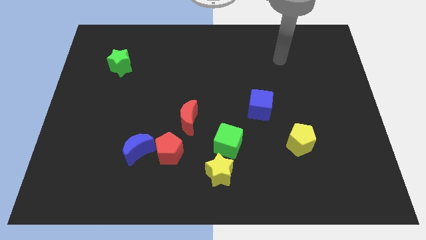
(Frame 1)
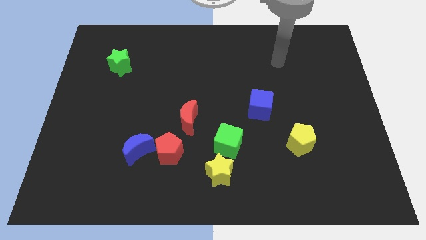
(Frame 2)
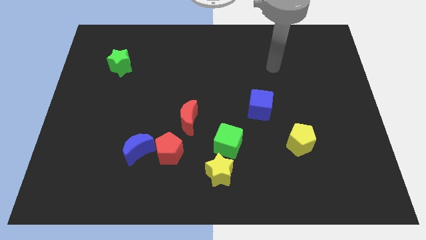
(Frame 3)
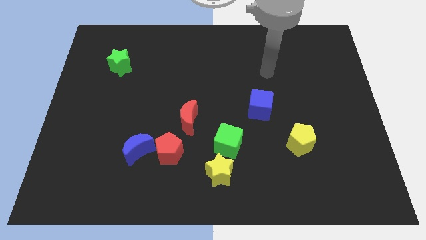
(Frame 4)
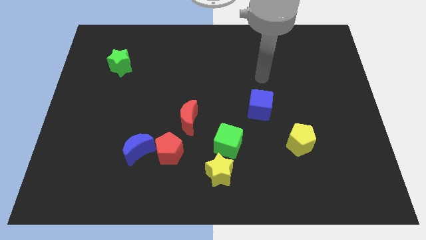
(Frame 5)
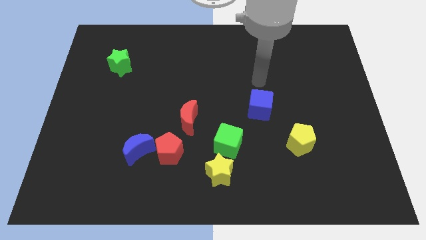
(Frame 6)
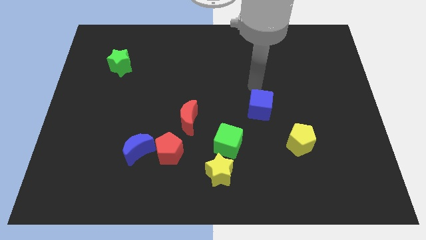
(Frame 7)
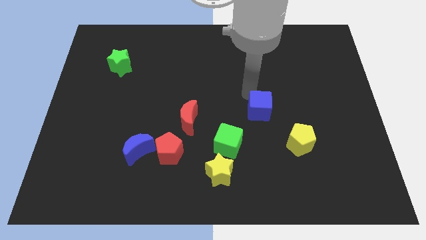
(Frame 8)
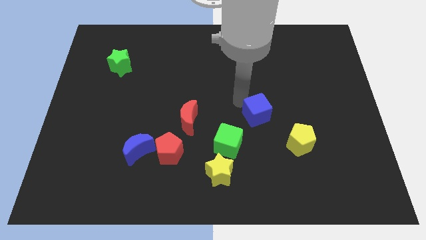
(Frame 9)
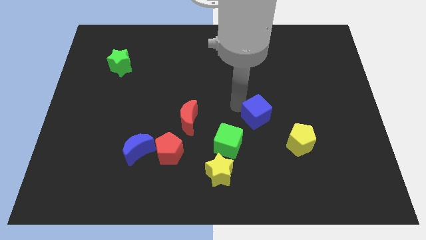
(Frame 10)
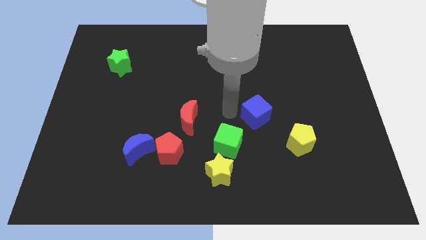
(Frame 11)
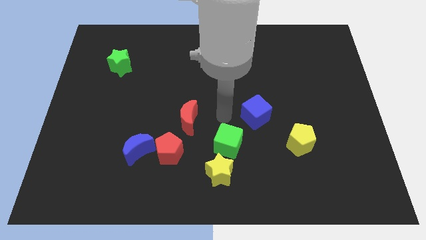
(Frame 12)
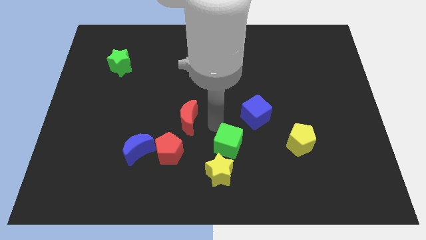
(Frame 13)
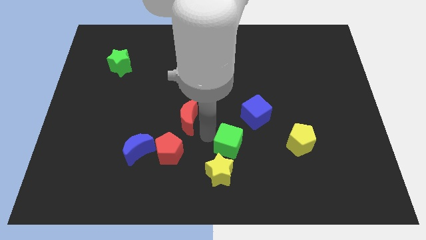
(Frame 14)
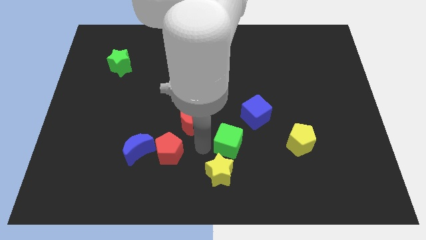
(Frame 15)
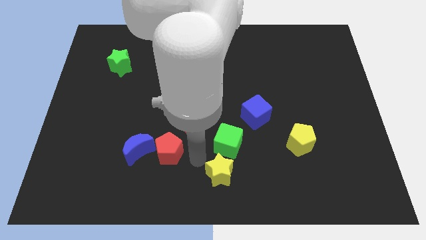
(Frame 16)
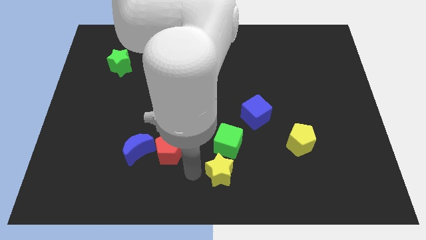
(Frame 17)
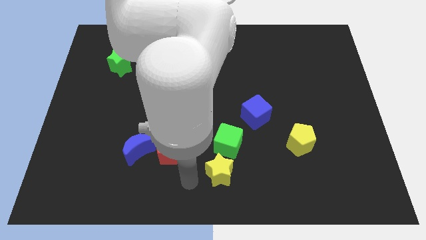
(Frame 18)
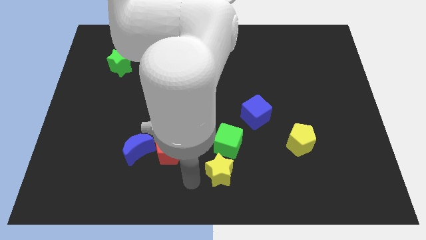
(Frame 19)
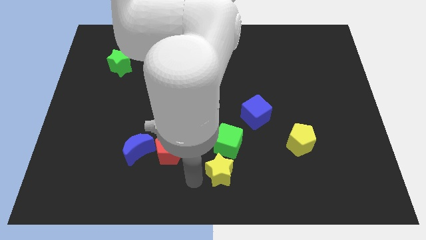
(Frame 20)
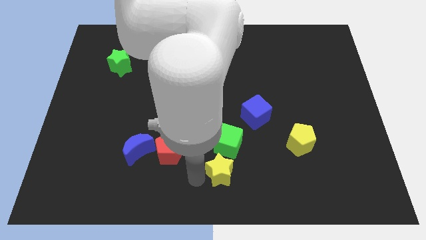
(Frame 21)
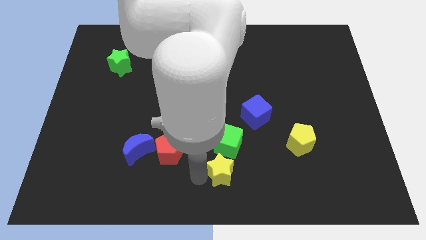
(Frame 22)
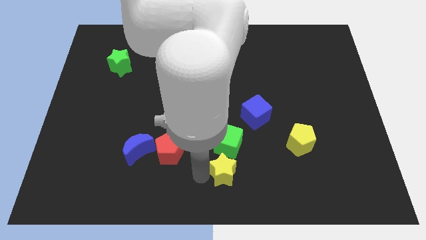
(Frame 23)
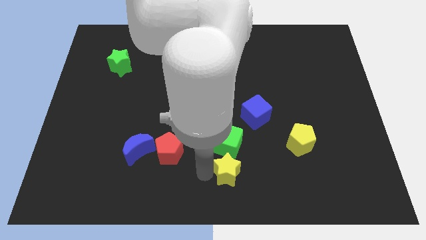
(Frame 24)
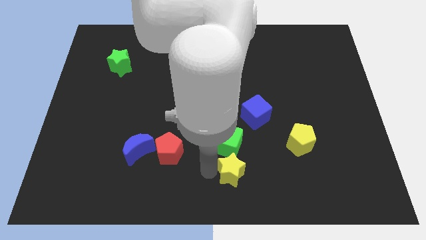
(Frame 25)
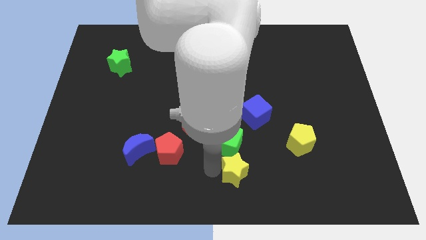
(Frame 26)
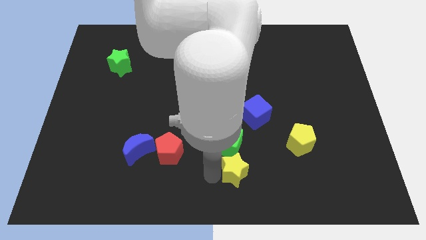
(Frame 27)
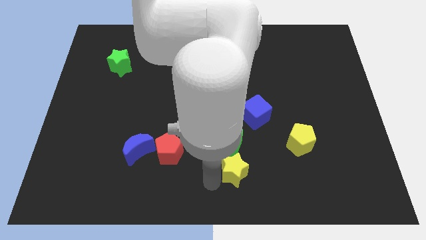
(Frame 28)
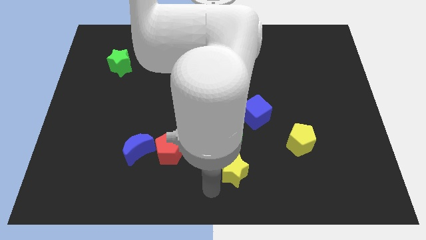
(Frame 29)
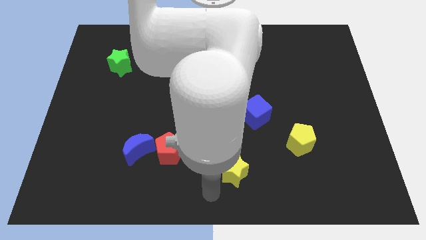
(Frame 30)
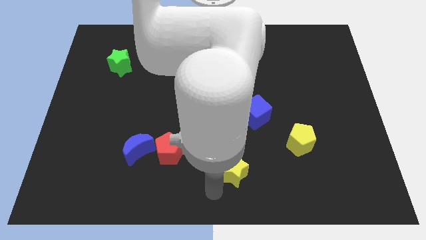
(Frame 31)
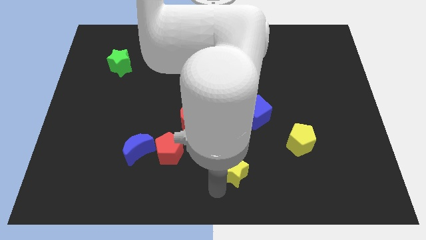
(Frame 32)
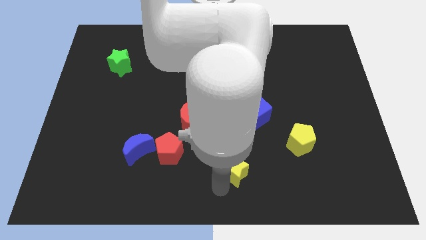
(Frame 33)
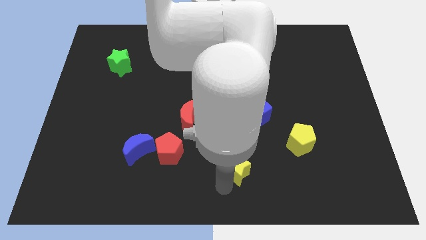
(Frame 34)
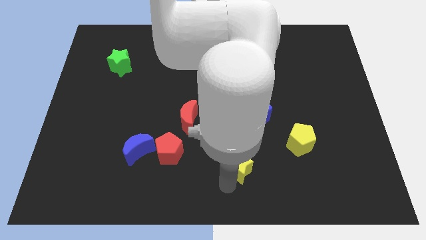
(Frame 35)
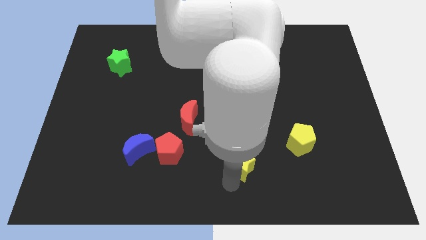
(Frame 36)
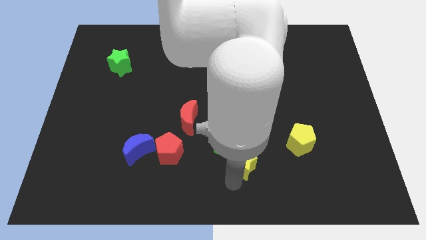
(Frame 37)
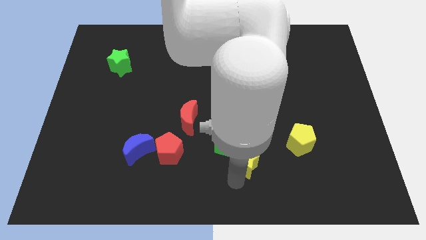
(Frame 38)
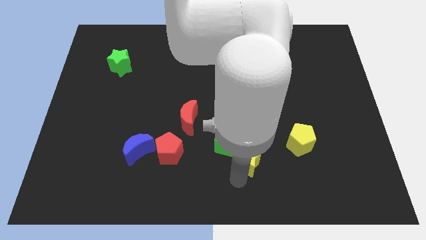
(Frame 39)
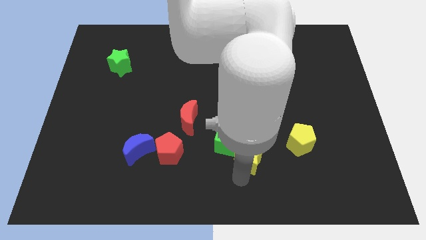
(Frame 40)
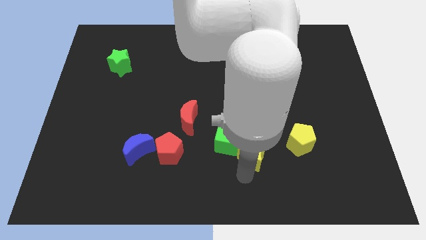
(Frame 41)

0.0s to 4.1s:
slightly move the yellow star diagonally up and right

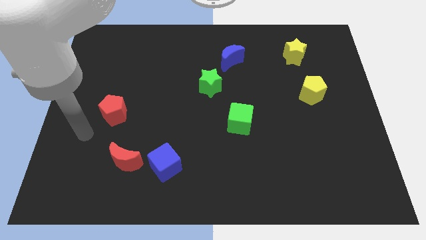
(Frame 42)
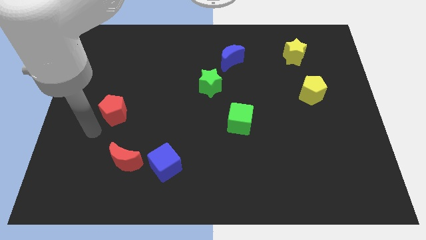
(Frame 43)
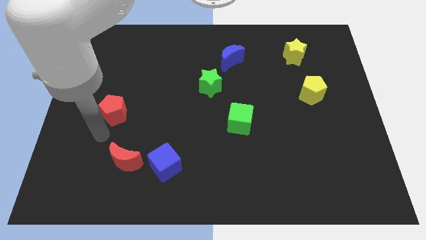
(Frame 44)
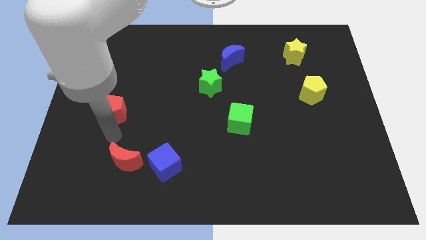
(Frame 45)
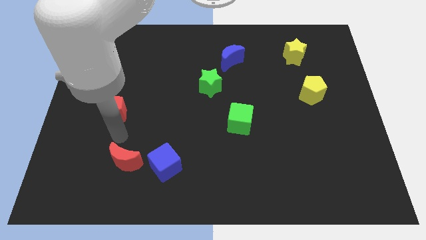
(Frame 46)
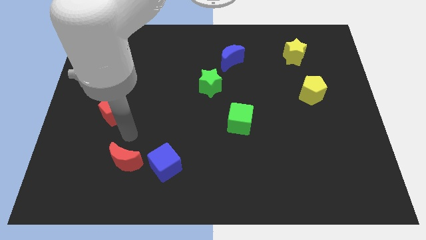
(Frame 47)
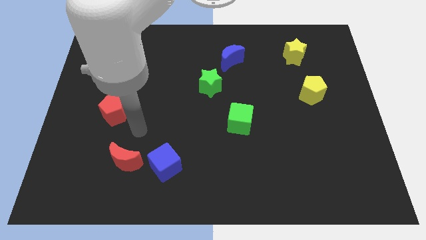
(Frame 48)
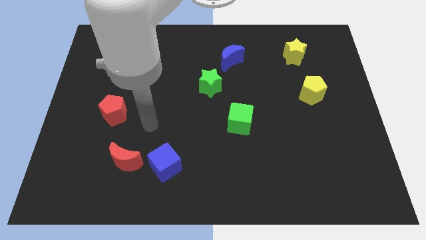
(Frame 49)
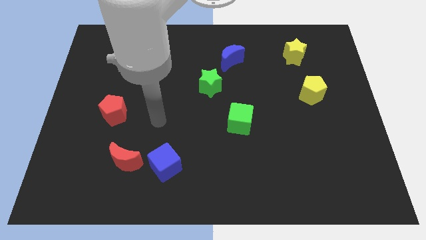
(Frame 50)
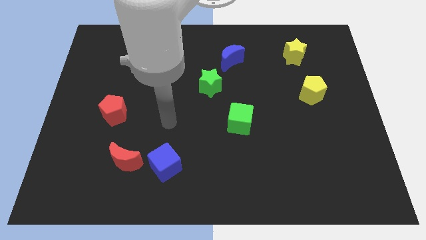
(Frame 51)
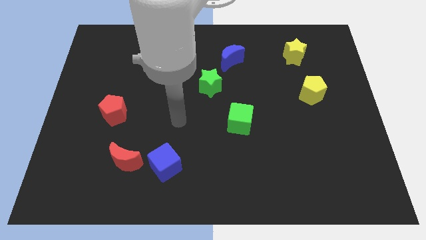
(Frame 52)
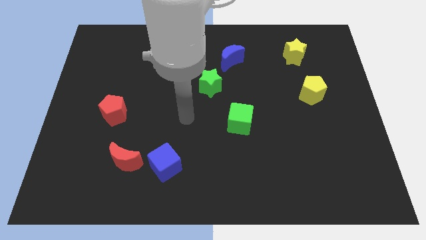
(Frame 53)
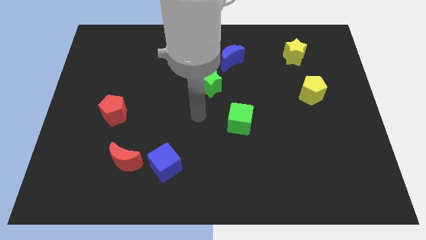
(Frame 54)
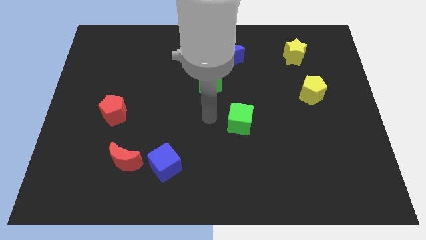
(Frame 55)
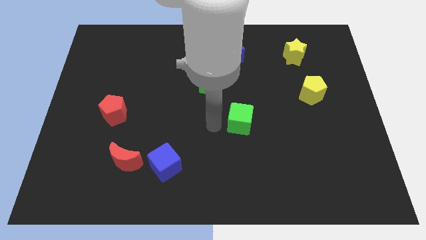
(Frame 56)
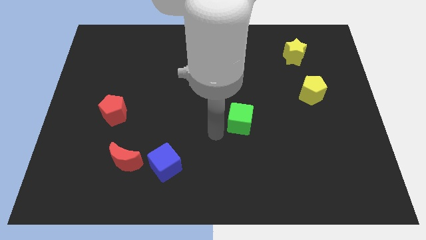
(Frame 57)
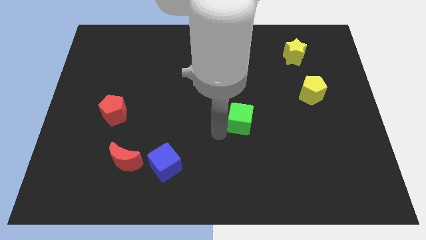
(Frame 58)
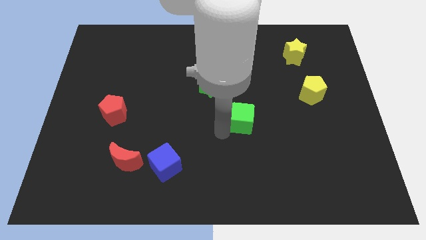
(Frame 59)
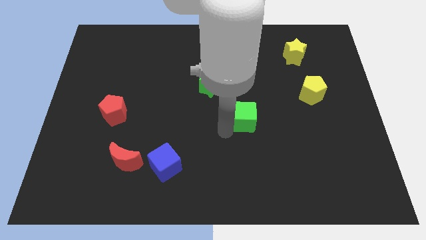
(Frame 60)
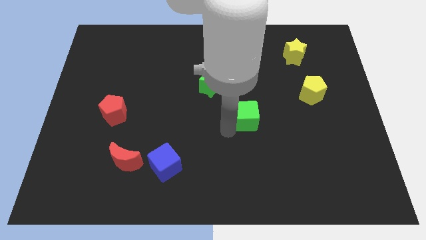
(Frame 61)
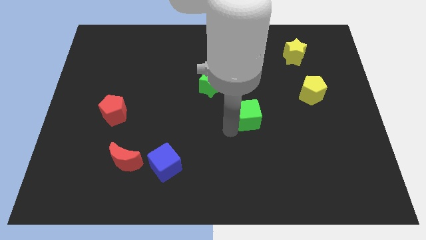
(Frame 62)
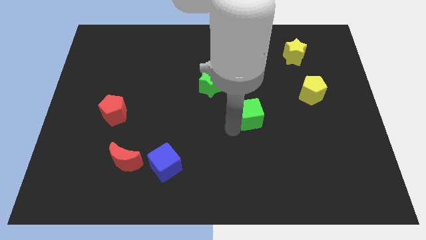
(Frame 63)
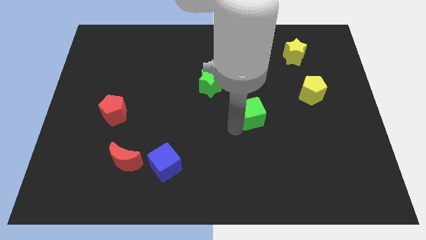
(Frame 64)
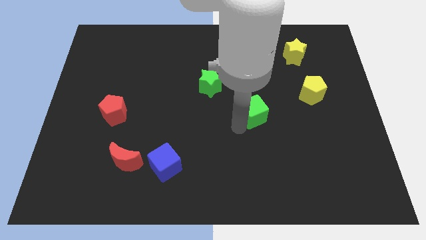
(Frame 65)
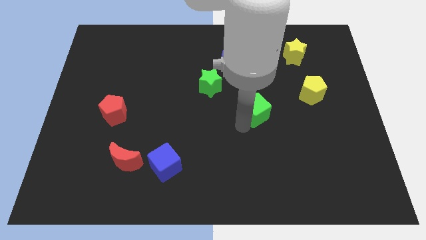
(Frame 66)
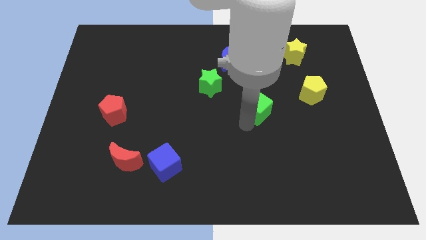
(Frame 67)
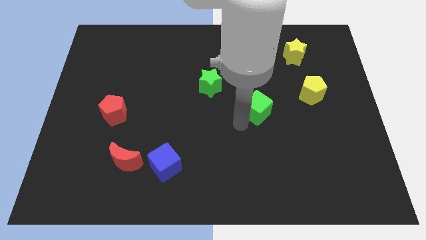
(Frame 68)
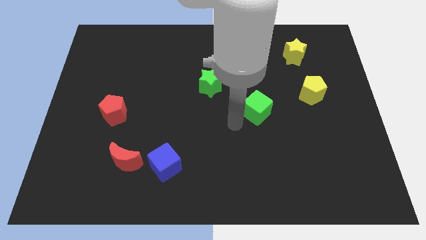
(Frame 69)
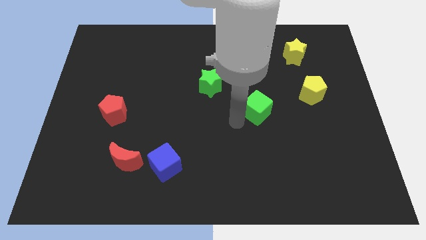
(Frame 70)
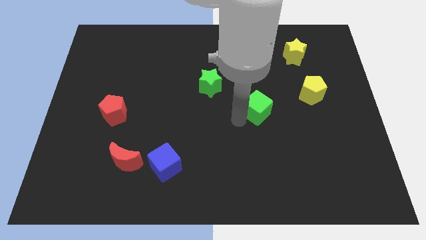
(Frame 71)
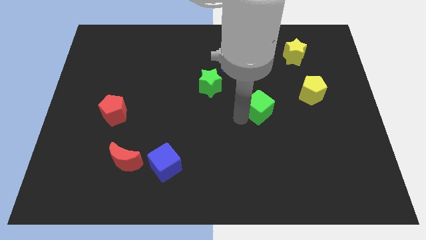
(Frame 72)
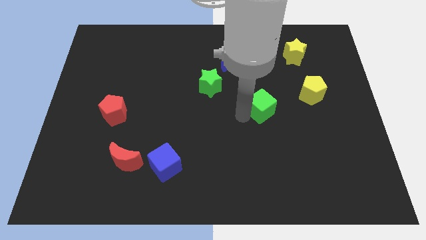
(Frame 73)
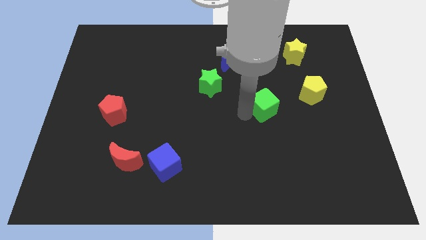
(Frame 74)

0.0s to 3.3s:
move the green cube up and then to the right a little bit

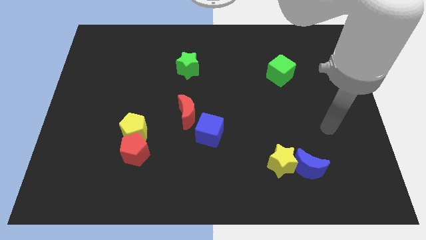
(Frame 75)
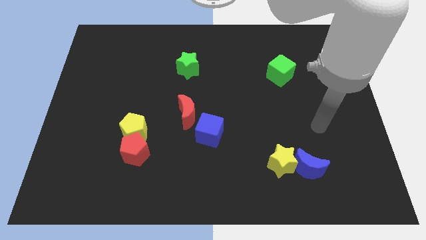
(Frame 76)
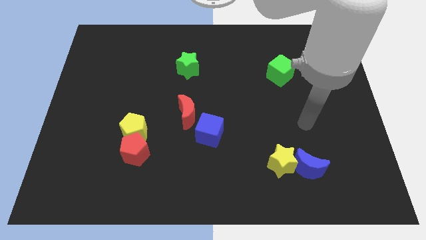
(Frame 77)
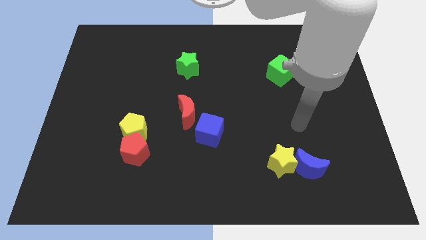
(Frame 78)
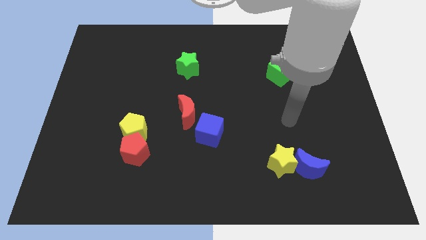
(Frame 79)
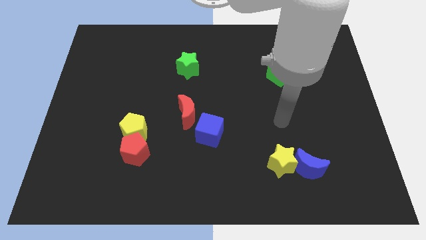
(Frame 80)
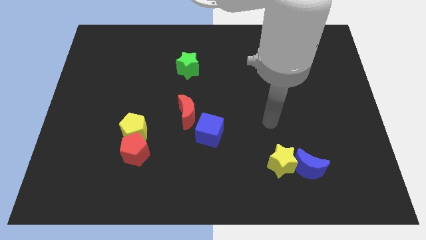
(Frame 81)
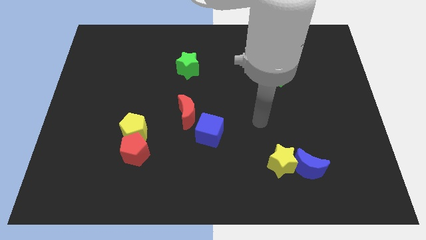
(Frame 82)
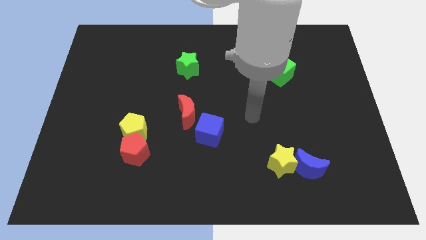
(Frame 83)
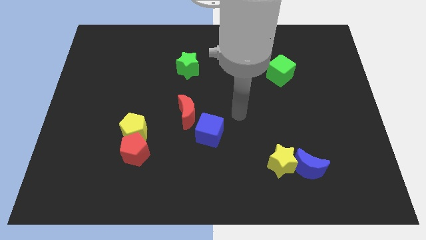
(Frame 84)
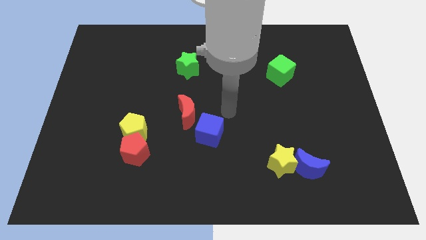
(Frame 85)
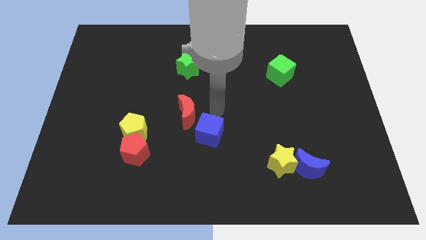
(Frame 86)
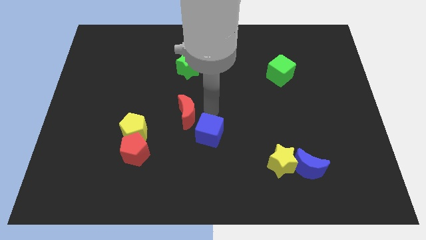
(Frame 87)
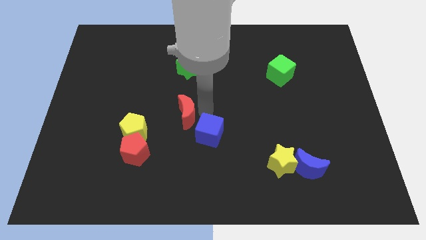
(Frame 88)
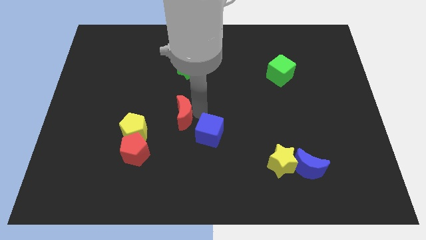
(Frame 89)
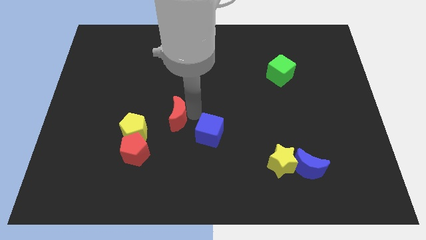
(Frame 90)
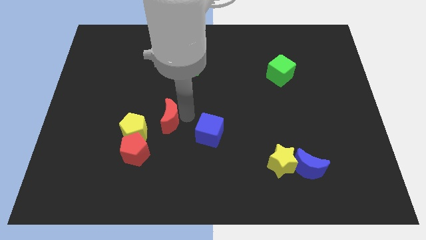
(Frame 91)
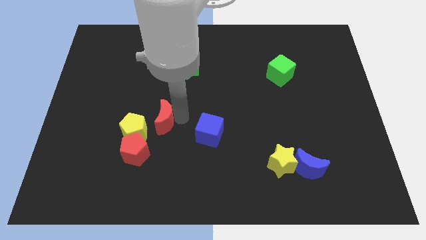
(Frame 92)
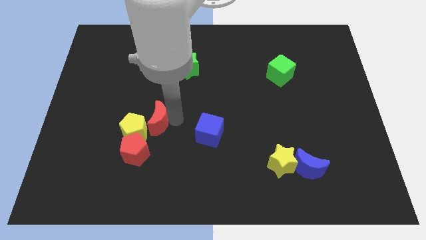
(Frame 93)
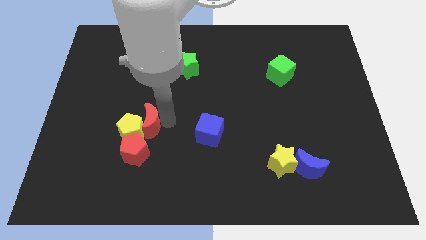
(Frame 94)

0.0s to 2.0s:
slide the red moon to the left somewhat
